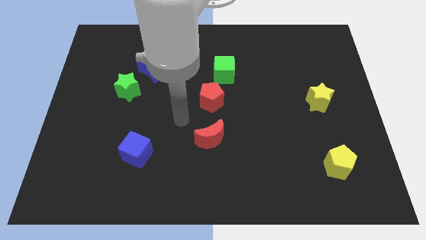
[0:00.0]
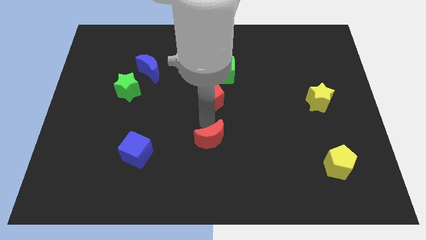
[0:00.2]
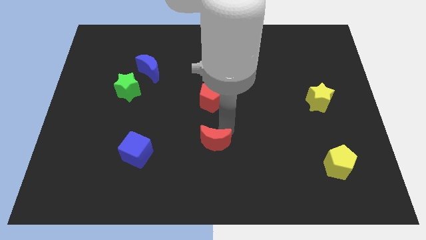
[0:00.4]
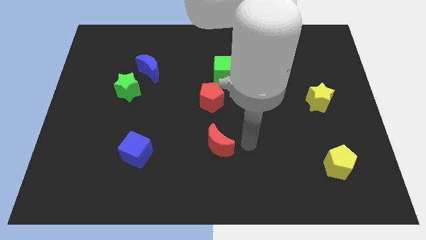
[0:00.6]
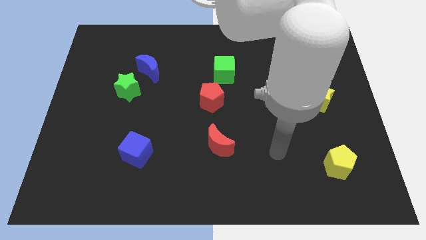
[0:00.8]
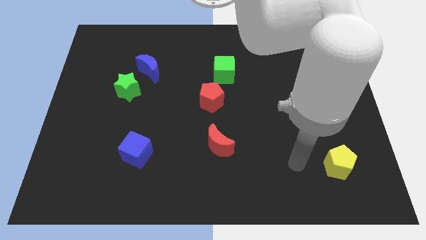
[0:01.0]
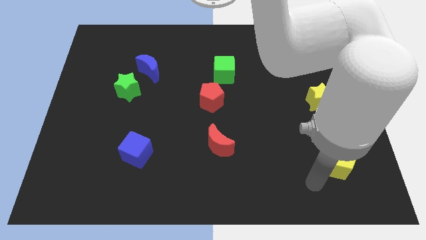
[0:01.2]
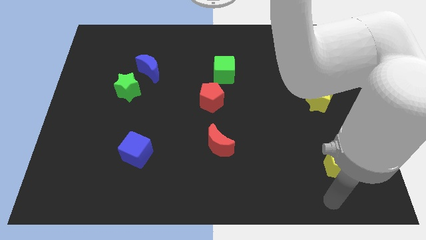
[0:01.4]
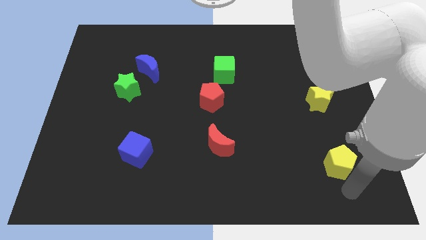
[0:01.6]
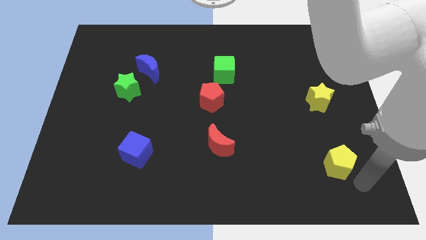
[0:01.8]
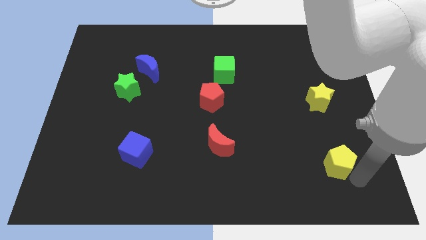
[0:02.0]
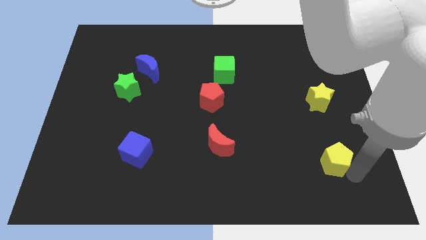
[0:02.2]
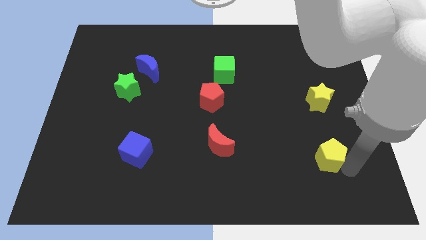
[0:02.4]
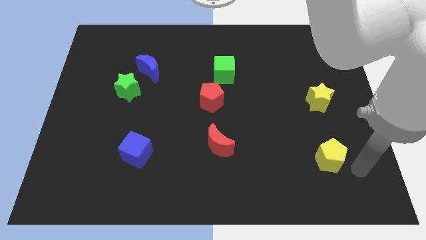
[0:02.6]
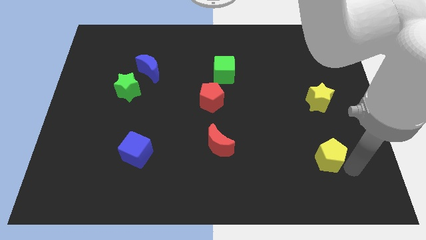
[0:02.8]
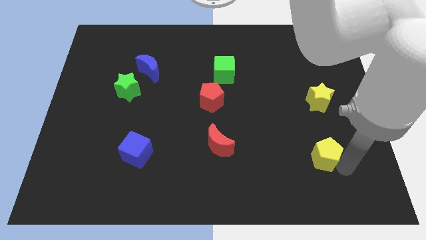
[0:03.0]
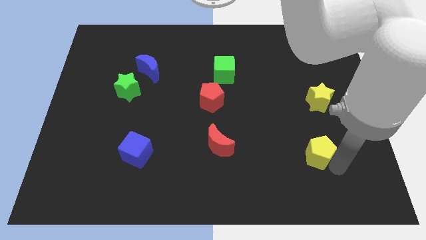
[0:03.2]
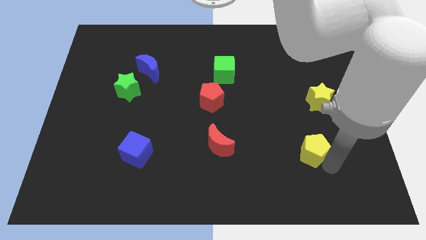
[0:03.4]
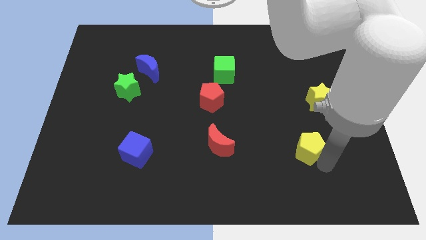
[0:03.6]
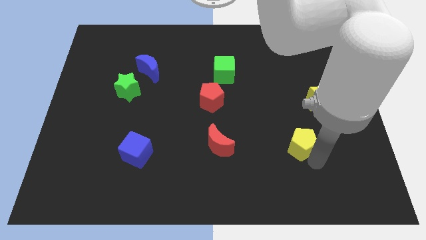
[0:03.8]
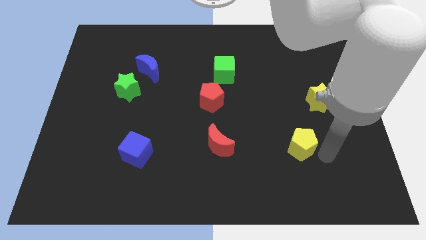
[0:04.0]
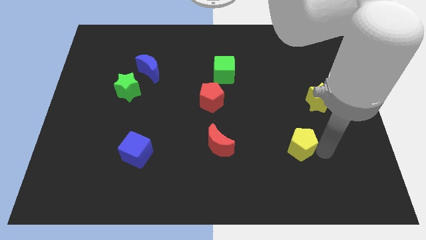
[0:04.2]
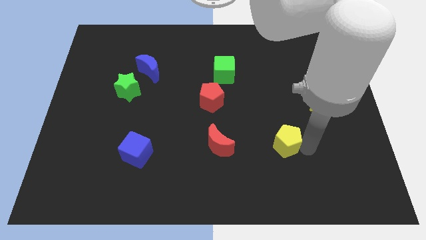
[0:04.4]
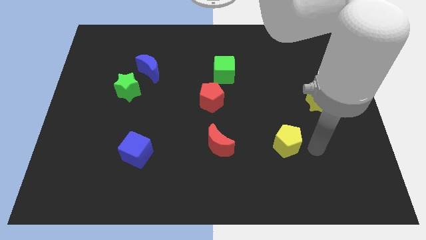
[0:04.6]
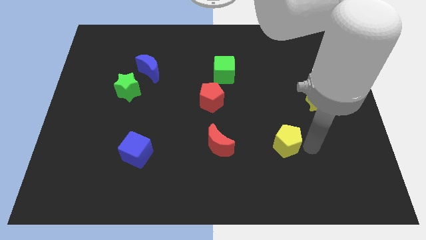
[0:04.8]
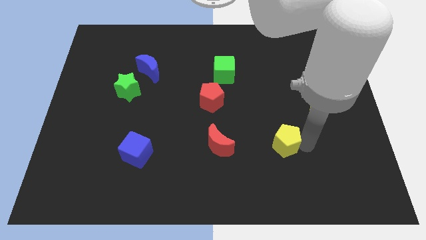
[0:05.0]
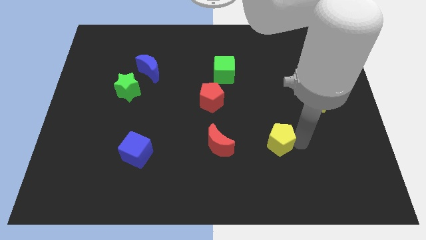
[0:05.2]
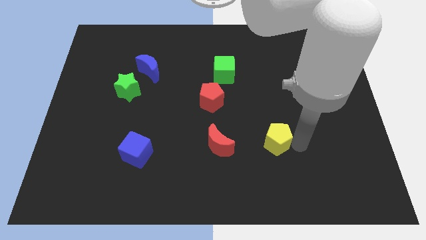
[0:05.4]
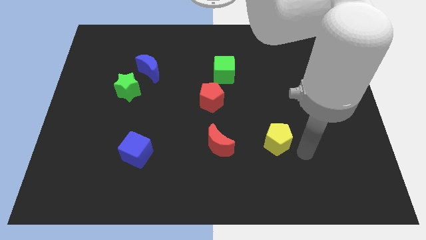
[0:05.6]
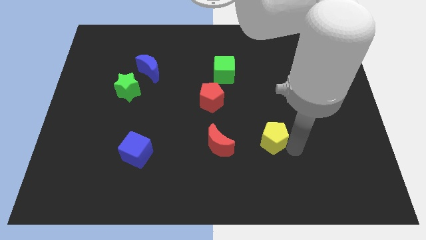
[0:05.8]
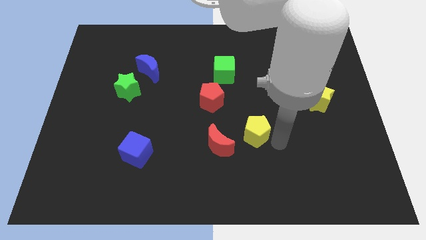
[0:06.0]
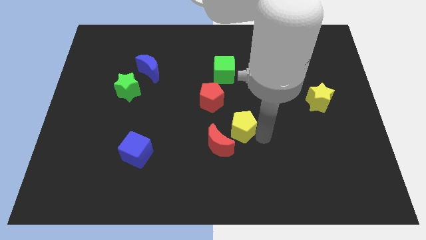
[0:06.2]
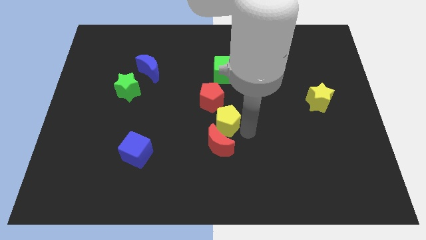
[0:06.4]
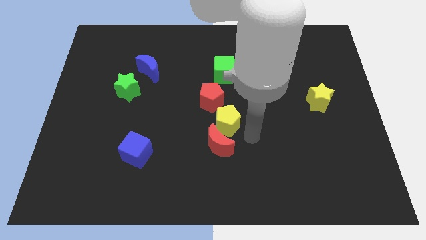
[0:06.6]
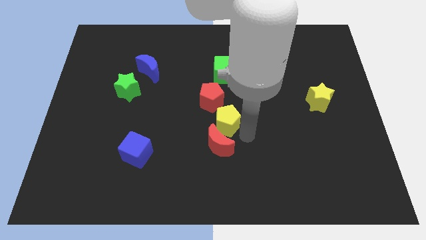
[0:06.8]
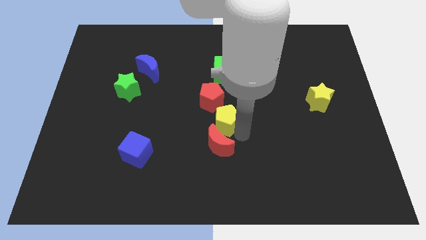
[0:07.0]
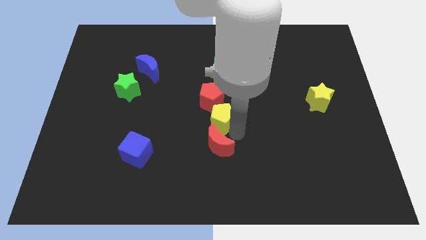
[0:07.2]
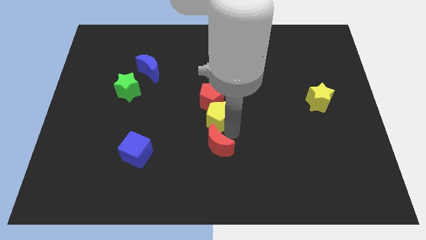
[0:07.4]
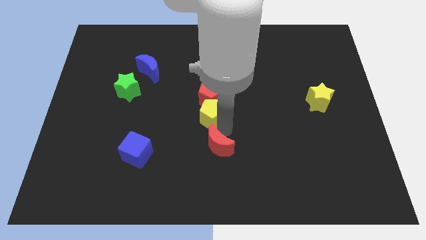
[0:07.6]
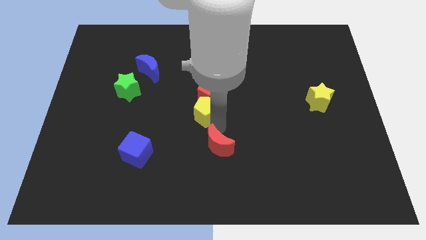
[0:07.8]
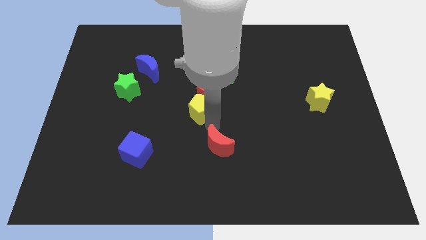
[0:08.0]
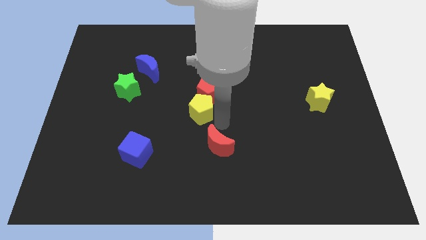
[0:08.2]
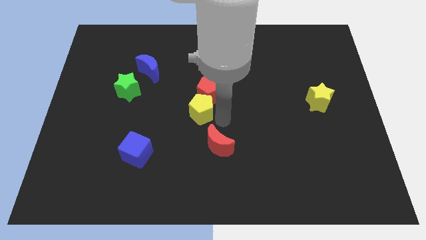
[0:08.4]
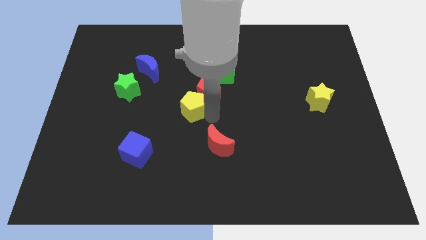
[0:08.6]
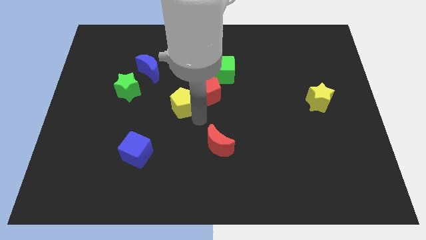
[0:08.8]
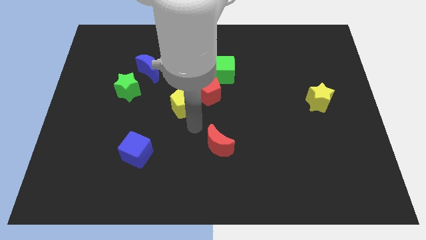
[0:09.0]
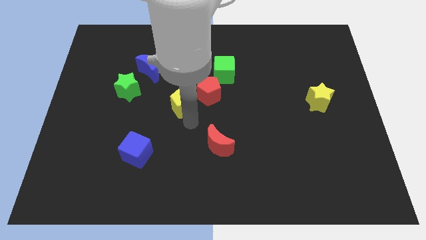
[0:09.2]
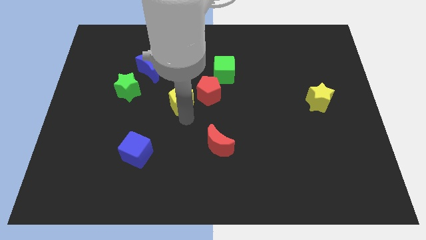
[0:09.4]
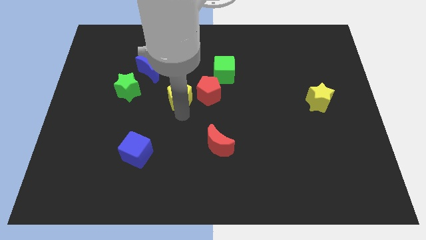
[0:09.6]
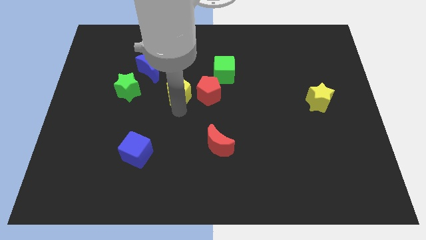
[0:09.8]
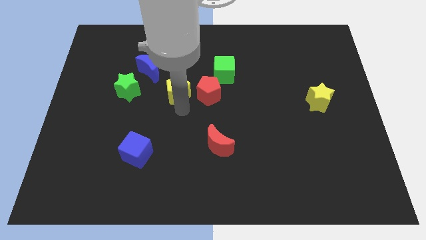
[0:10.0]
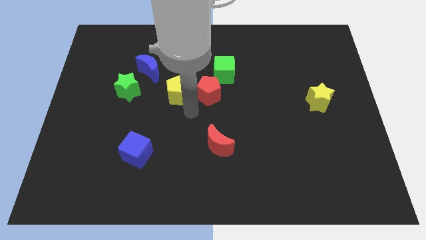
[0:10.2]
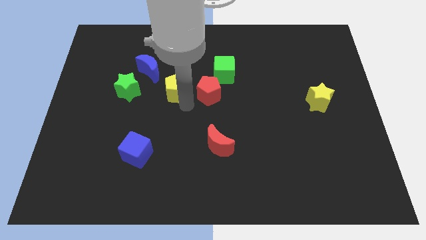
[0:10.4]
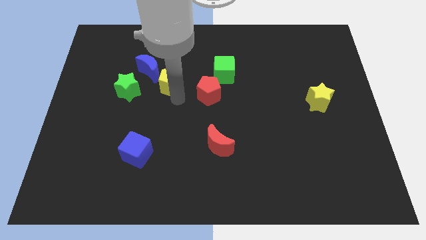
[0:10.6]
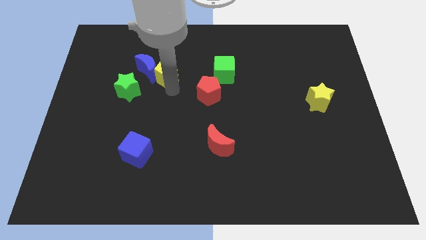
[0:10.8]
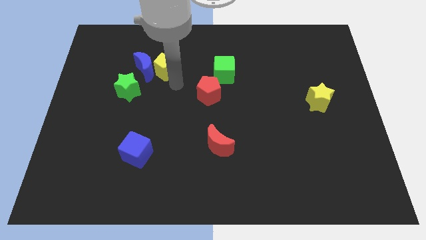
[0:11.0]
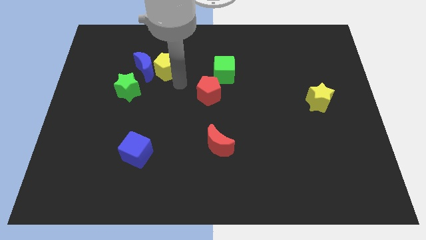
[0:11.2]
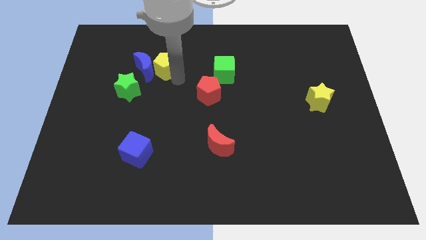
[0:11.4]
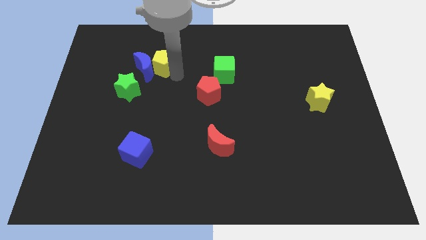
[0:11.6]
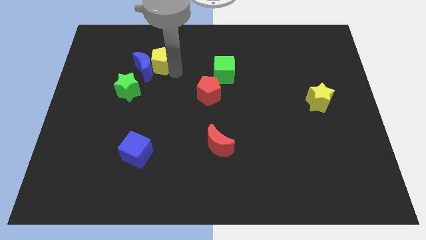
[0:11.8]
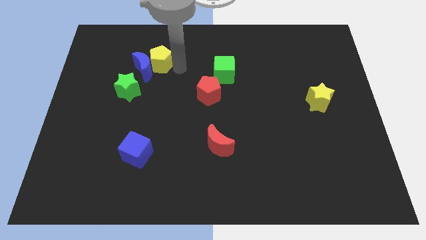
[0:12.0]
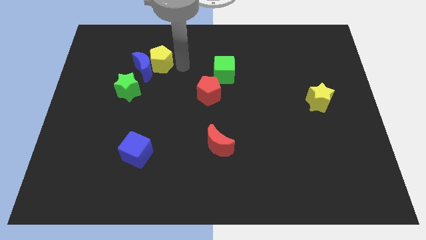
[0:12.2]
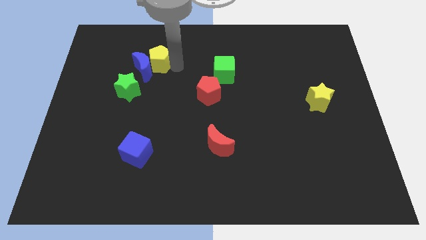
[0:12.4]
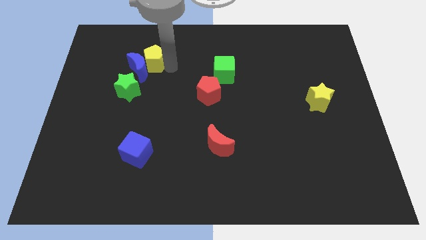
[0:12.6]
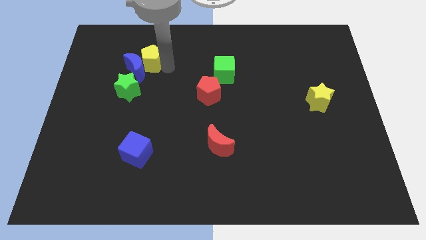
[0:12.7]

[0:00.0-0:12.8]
push the yellow pentagon to the top of the green star

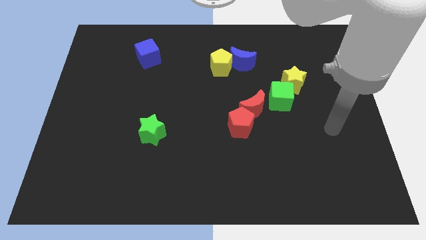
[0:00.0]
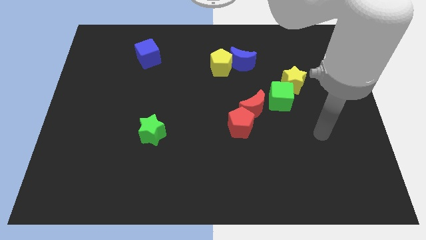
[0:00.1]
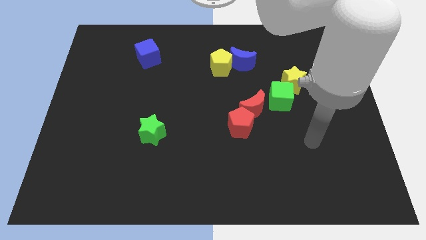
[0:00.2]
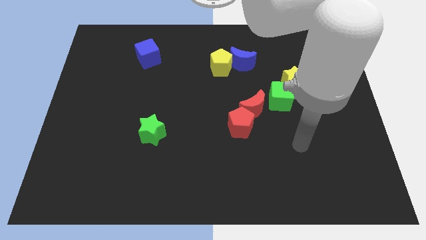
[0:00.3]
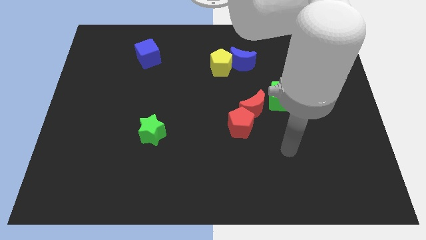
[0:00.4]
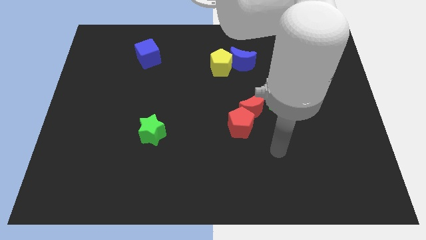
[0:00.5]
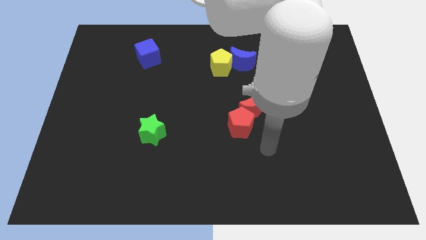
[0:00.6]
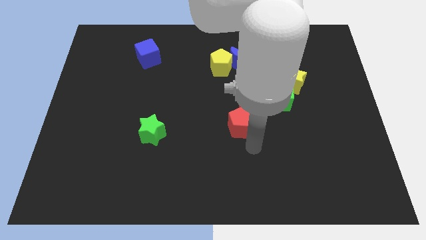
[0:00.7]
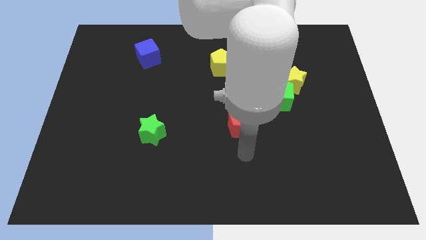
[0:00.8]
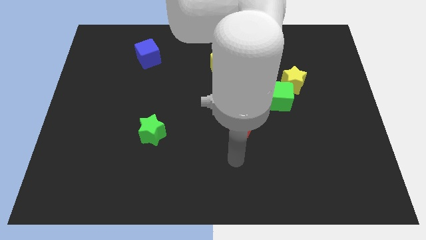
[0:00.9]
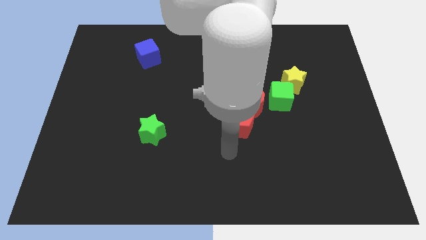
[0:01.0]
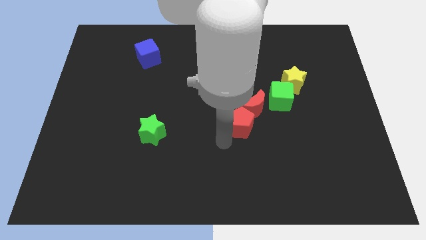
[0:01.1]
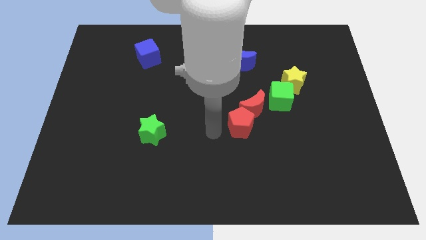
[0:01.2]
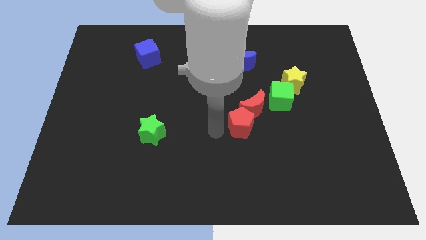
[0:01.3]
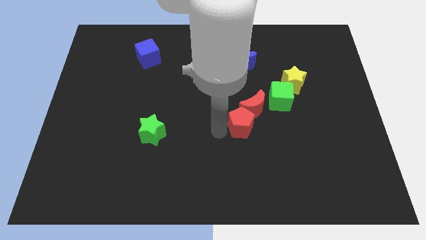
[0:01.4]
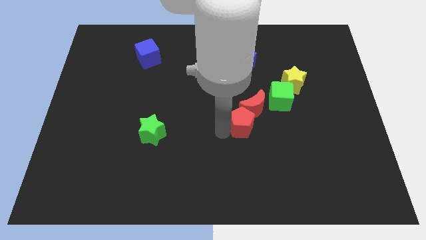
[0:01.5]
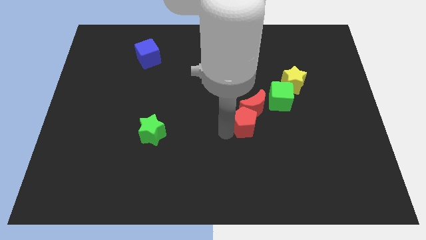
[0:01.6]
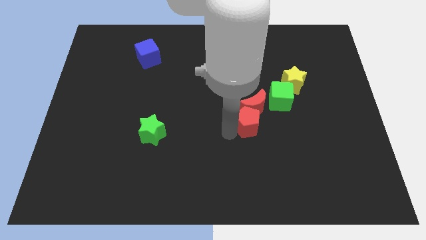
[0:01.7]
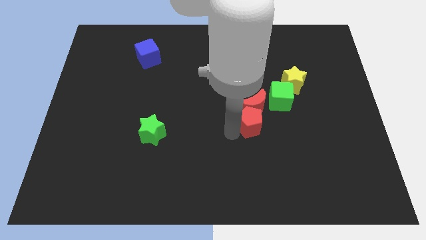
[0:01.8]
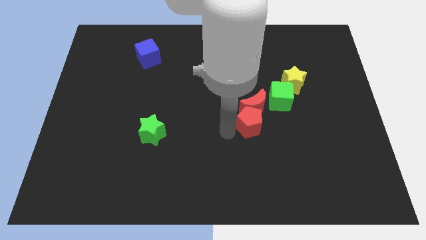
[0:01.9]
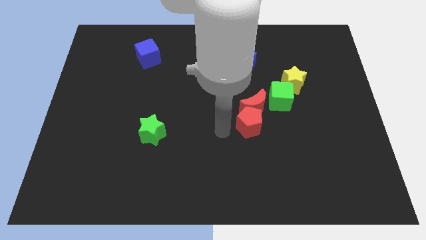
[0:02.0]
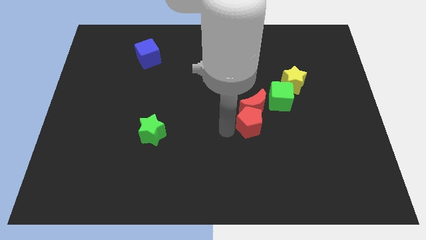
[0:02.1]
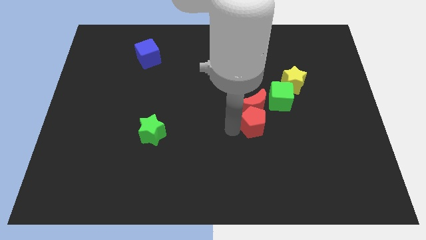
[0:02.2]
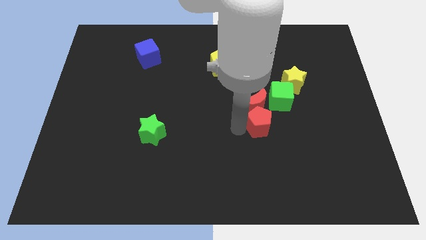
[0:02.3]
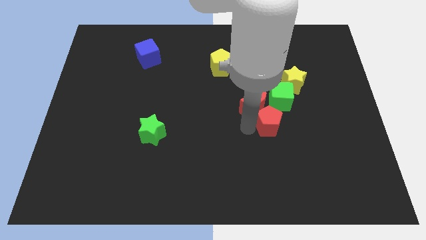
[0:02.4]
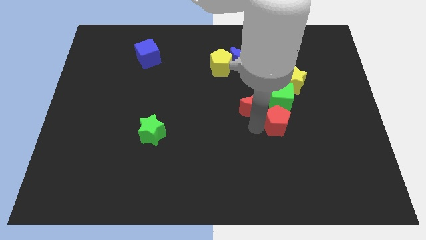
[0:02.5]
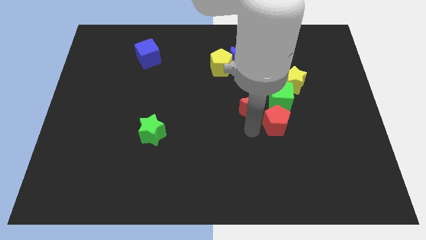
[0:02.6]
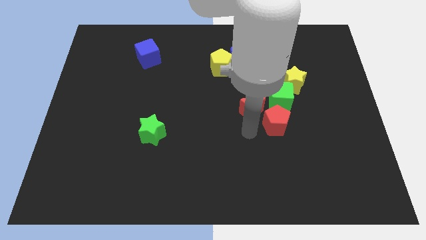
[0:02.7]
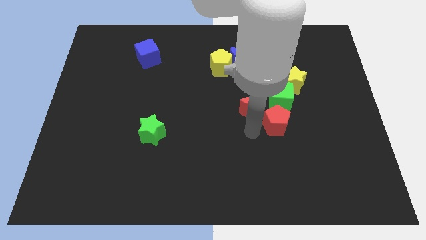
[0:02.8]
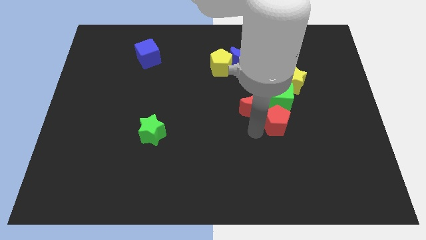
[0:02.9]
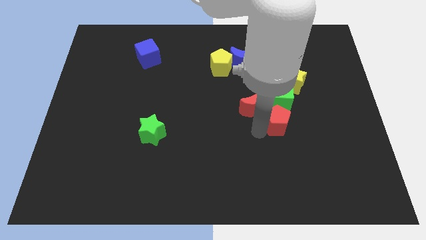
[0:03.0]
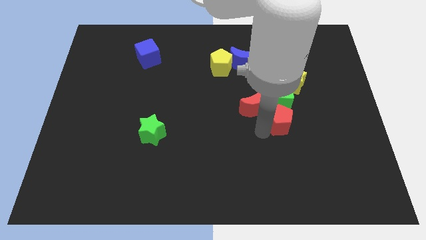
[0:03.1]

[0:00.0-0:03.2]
put the red pentagon to the bottom side of the yellow star
